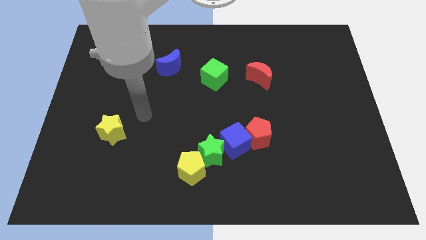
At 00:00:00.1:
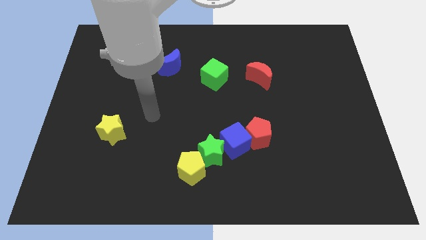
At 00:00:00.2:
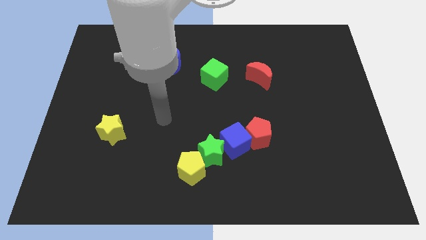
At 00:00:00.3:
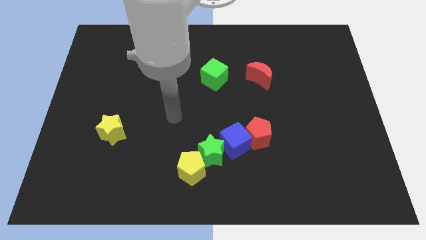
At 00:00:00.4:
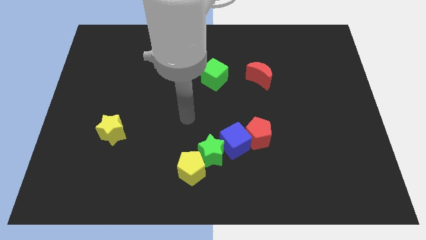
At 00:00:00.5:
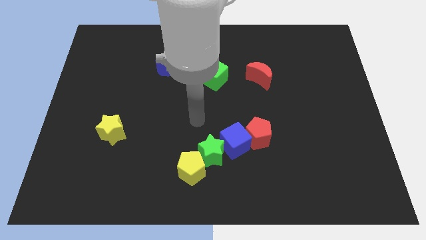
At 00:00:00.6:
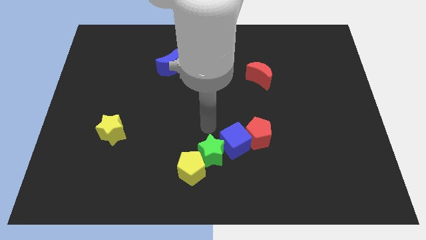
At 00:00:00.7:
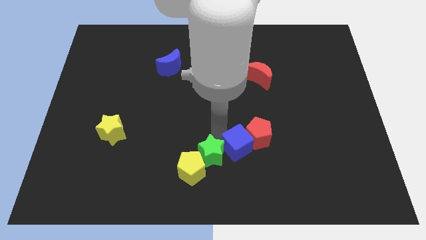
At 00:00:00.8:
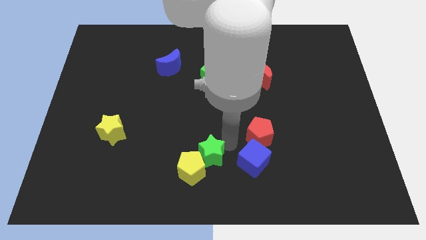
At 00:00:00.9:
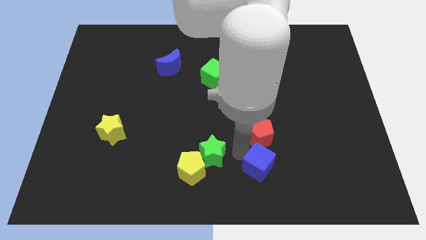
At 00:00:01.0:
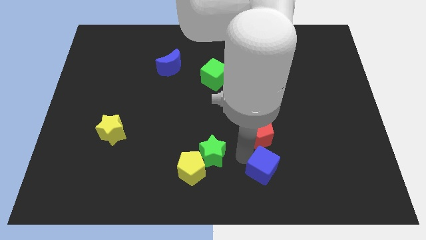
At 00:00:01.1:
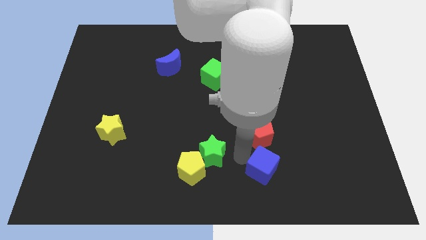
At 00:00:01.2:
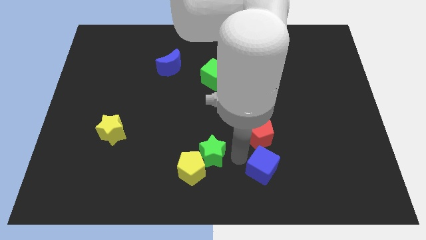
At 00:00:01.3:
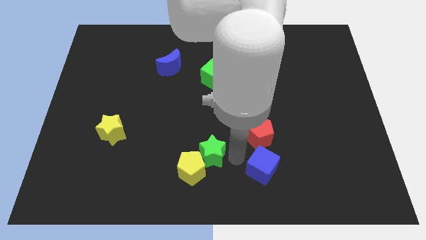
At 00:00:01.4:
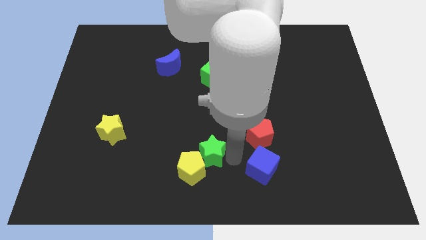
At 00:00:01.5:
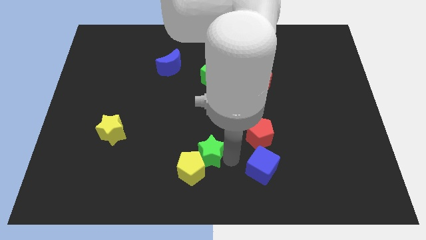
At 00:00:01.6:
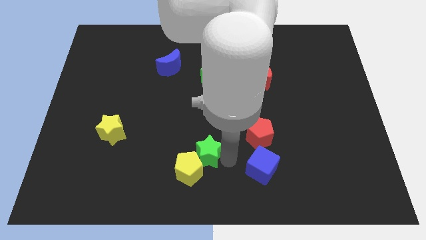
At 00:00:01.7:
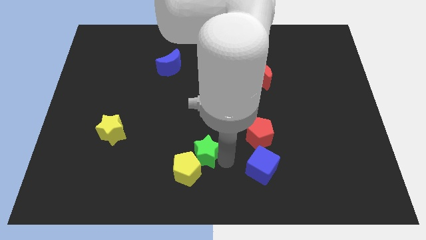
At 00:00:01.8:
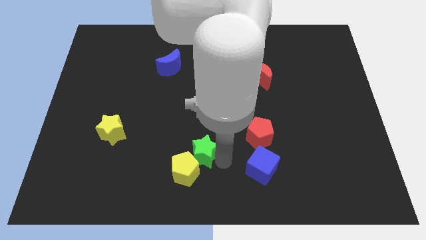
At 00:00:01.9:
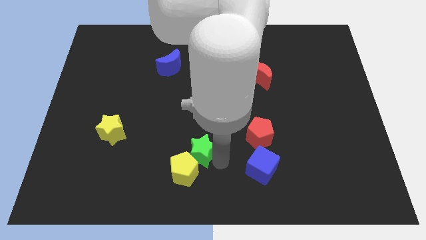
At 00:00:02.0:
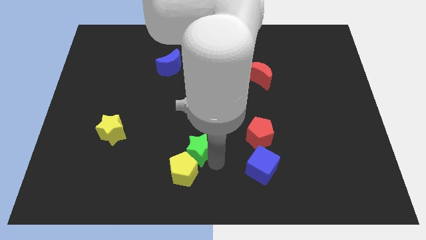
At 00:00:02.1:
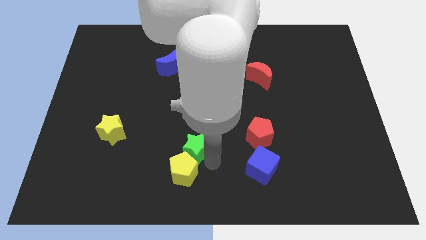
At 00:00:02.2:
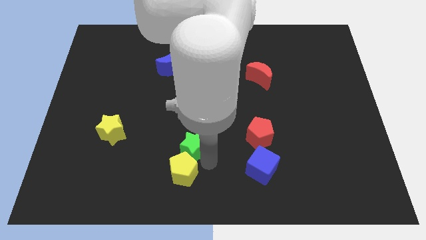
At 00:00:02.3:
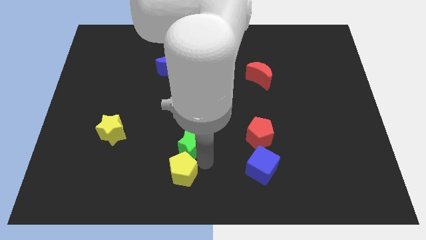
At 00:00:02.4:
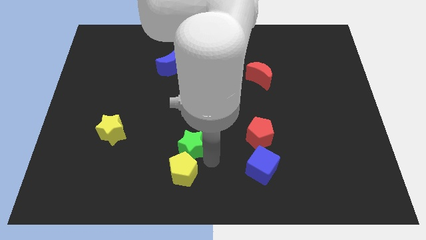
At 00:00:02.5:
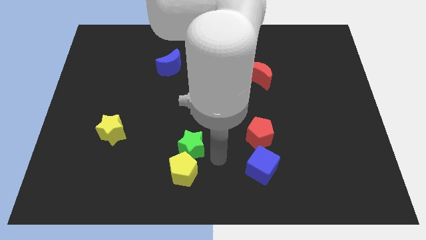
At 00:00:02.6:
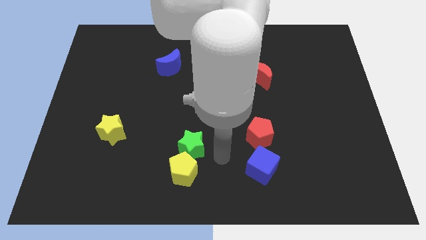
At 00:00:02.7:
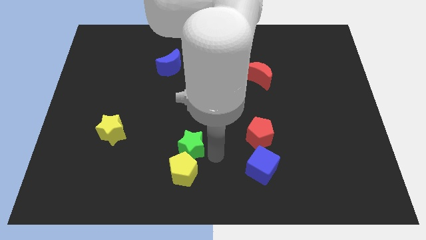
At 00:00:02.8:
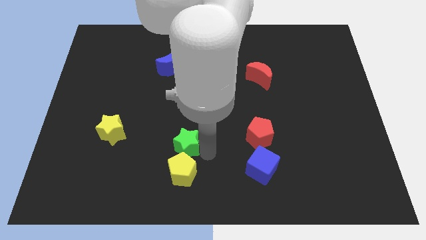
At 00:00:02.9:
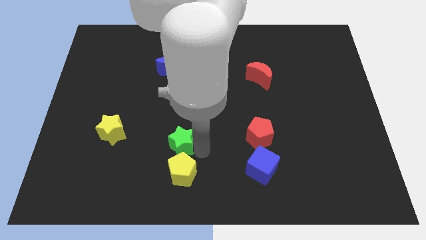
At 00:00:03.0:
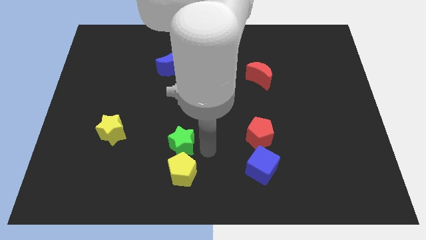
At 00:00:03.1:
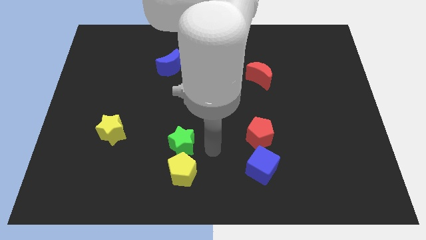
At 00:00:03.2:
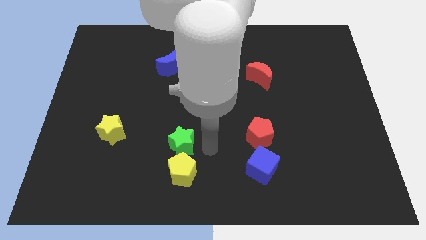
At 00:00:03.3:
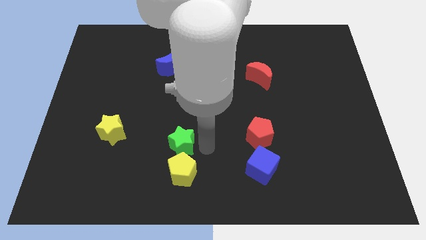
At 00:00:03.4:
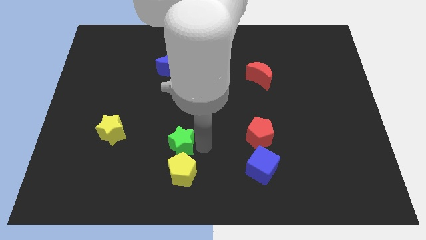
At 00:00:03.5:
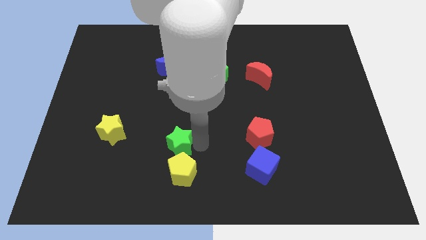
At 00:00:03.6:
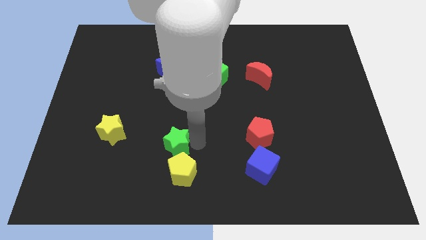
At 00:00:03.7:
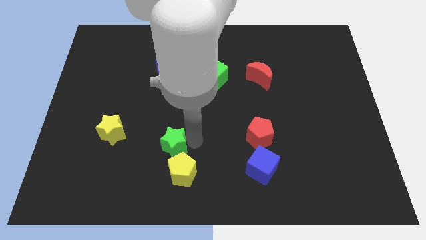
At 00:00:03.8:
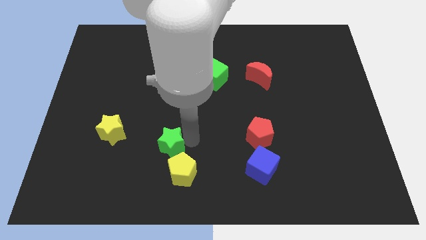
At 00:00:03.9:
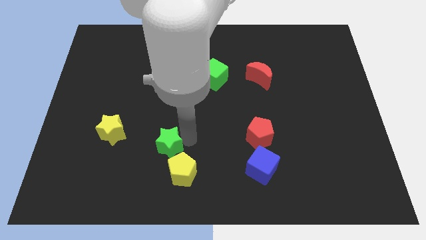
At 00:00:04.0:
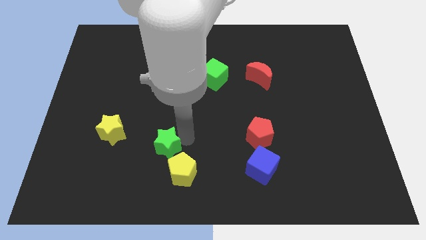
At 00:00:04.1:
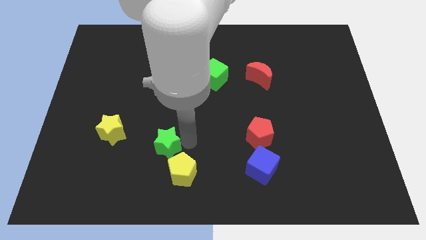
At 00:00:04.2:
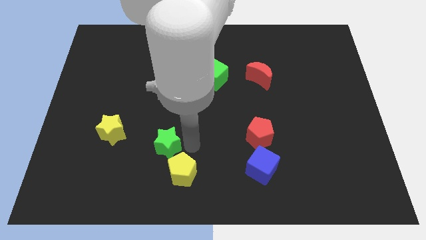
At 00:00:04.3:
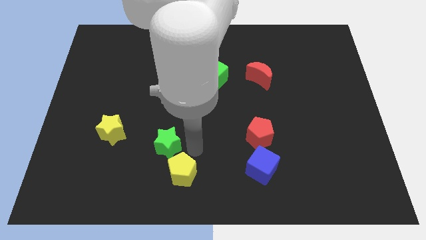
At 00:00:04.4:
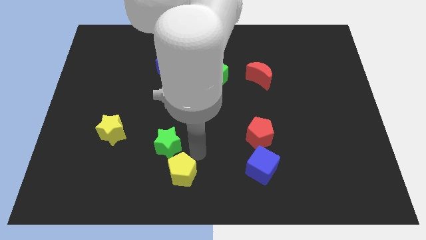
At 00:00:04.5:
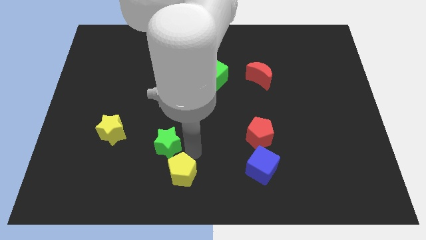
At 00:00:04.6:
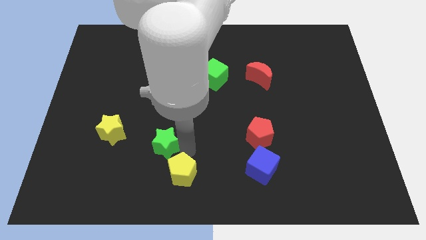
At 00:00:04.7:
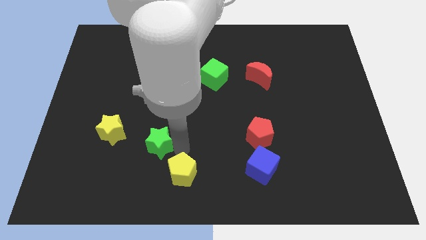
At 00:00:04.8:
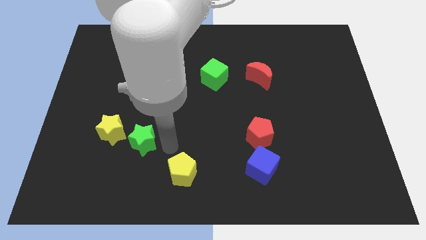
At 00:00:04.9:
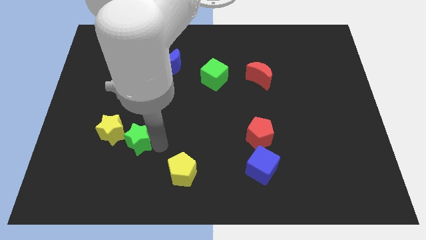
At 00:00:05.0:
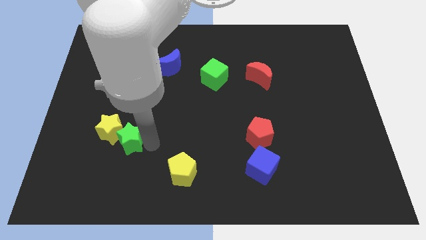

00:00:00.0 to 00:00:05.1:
push the green star close to the yellow star

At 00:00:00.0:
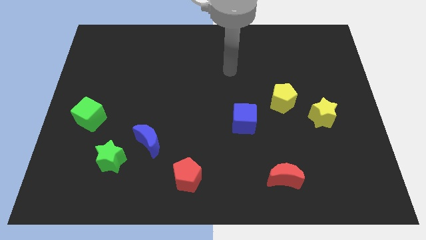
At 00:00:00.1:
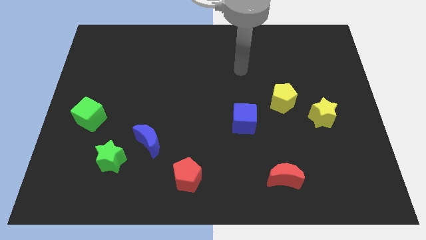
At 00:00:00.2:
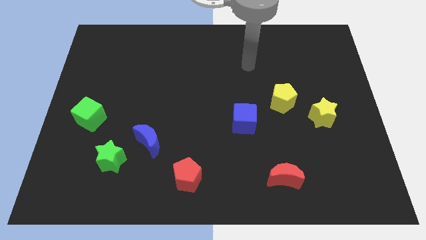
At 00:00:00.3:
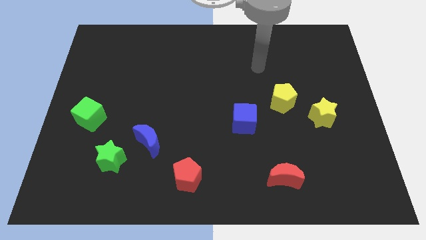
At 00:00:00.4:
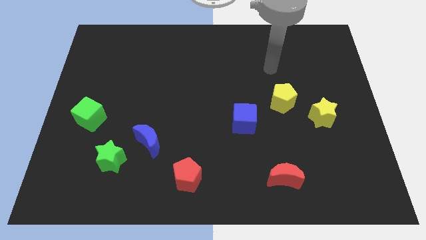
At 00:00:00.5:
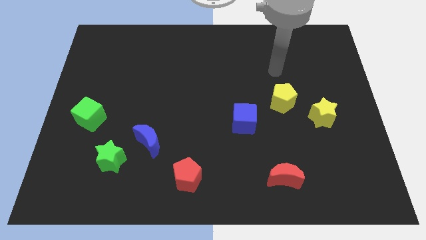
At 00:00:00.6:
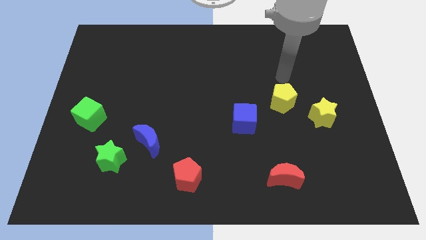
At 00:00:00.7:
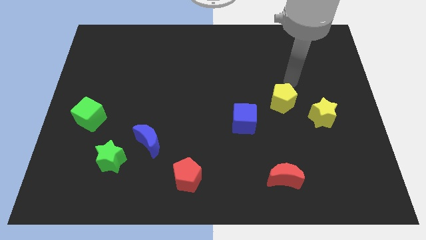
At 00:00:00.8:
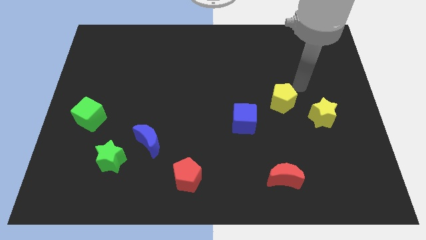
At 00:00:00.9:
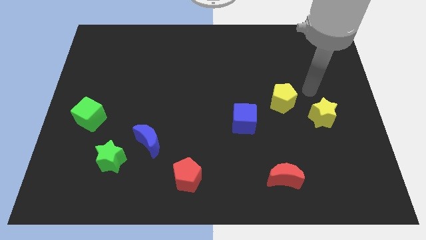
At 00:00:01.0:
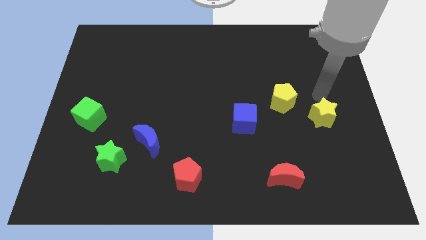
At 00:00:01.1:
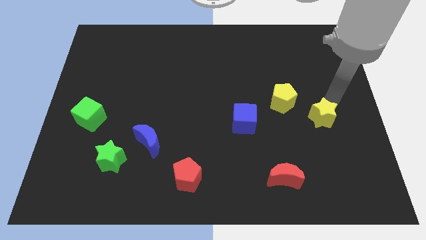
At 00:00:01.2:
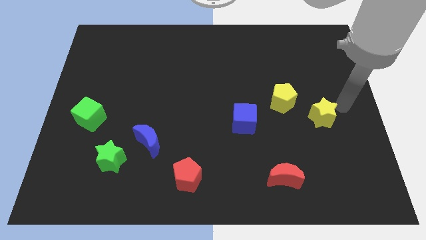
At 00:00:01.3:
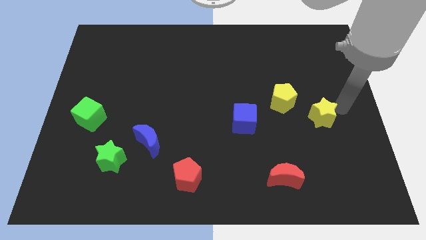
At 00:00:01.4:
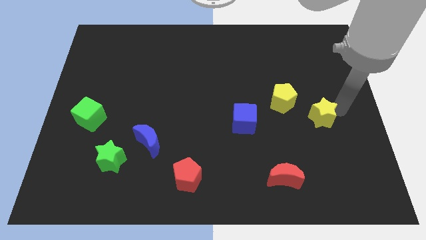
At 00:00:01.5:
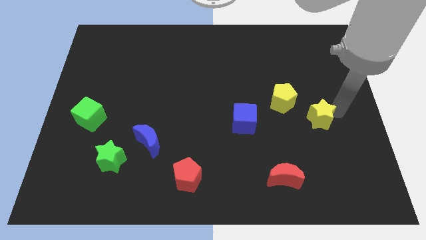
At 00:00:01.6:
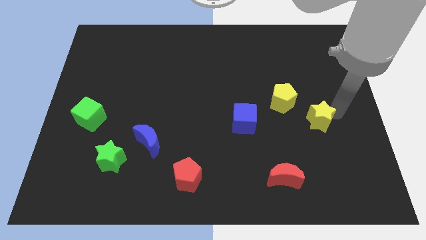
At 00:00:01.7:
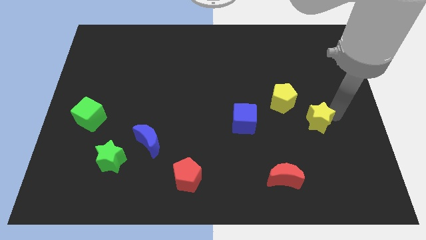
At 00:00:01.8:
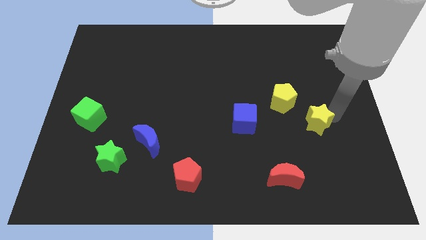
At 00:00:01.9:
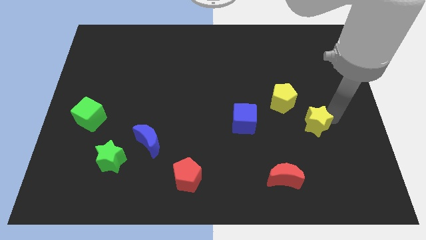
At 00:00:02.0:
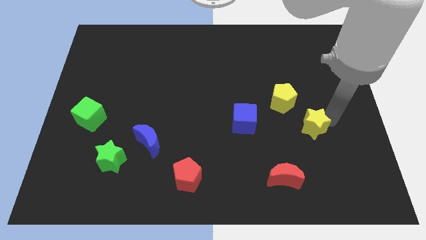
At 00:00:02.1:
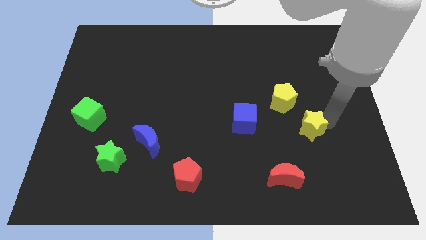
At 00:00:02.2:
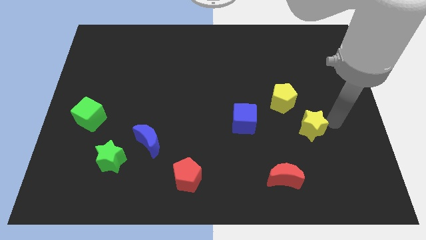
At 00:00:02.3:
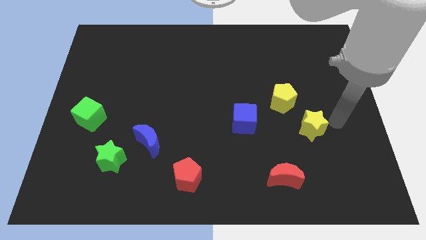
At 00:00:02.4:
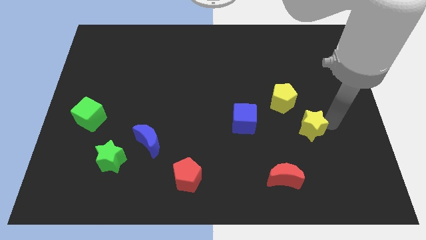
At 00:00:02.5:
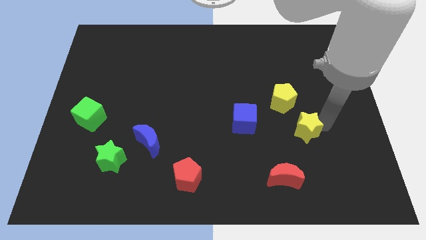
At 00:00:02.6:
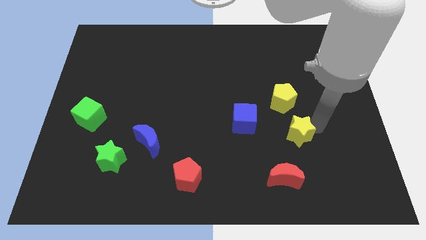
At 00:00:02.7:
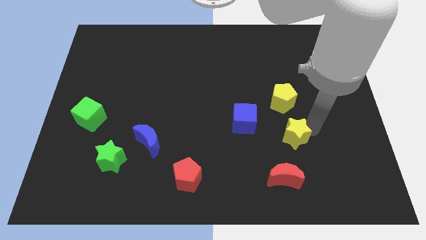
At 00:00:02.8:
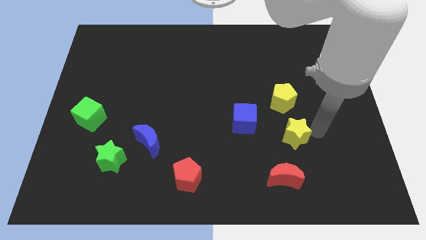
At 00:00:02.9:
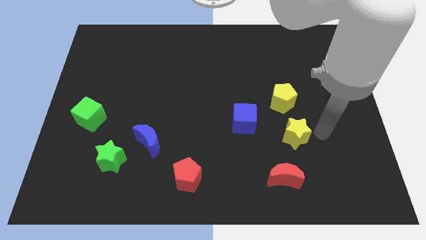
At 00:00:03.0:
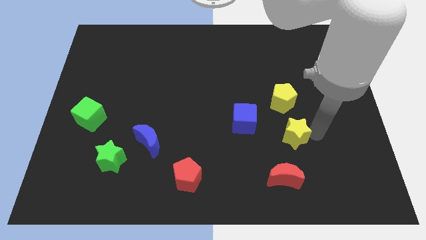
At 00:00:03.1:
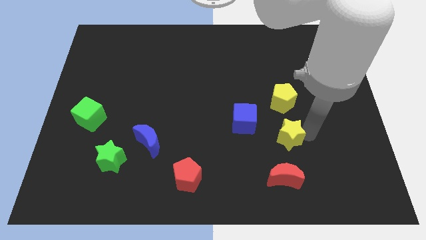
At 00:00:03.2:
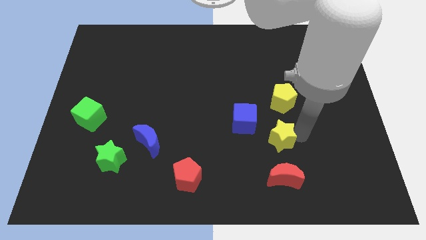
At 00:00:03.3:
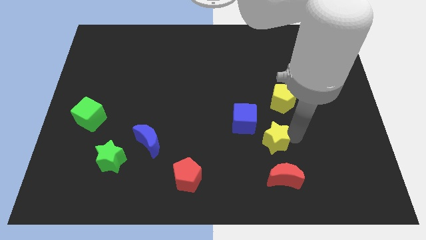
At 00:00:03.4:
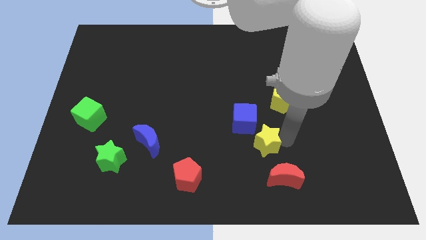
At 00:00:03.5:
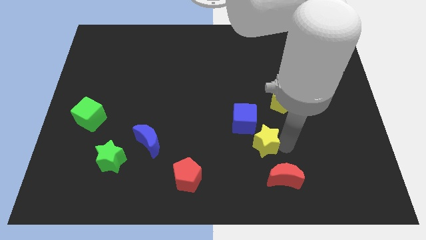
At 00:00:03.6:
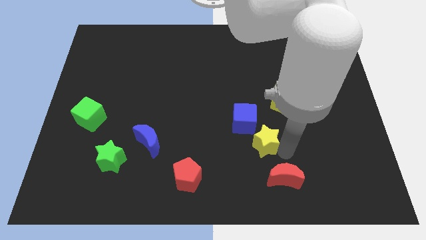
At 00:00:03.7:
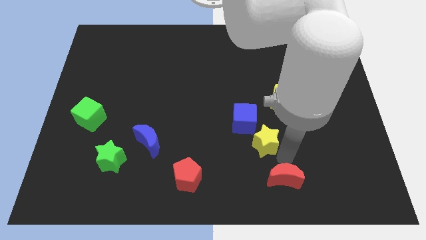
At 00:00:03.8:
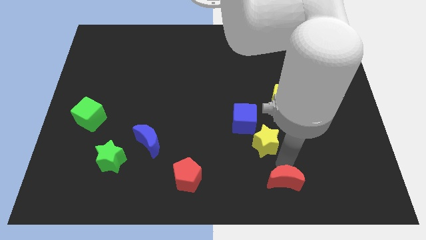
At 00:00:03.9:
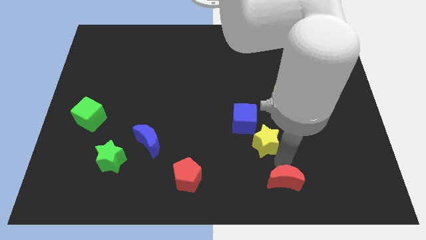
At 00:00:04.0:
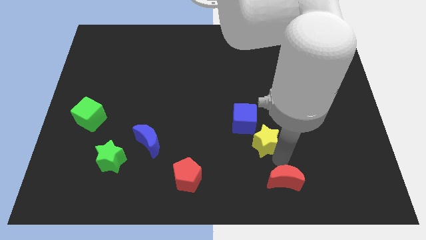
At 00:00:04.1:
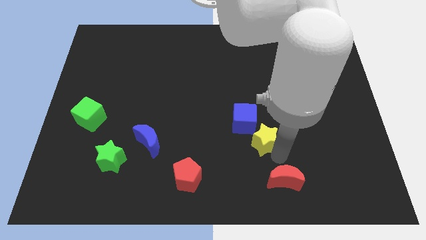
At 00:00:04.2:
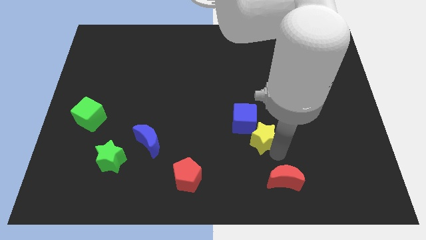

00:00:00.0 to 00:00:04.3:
slide the yellow star towards the blue cube
